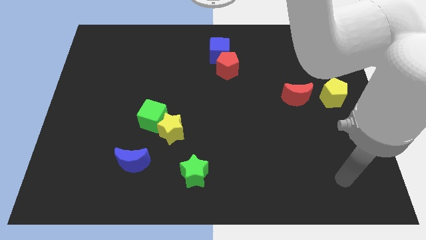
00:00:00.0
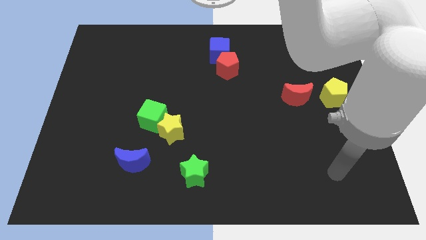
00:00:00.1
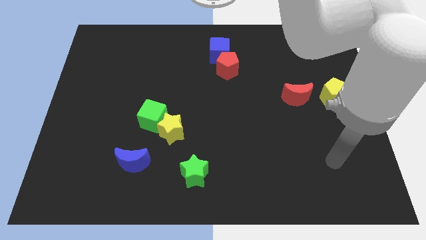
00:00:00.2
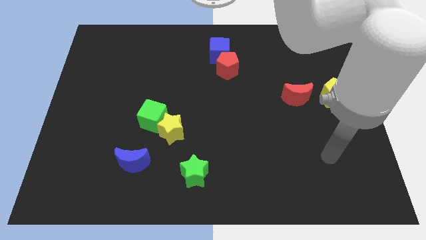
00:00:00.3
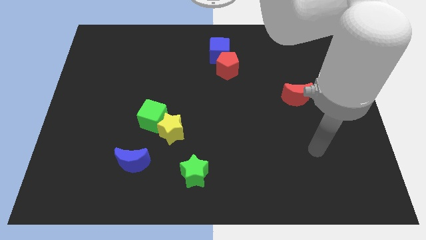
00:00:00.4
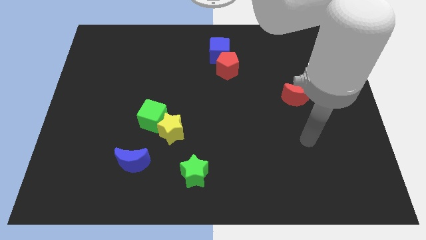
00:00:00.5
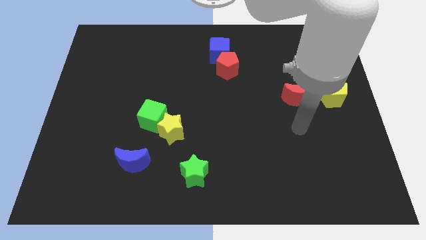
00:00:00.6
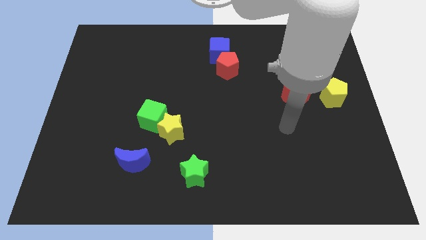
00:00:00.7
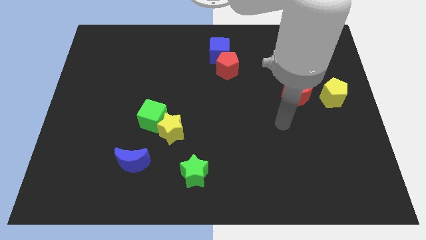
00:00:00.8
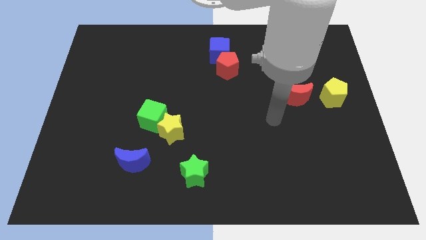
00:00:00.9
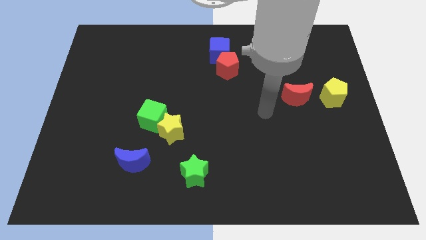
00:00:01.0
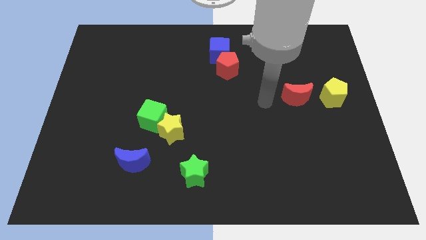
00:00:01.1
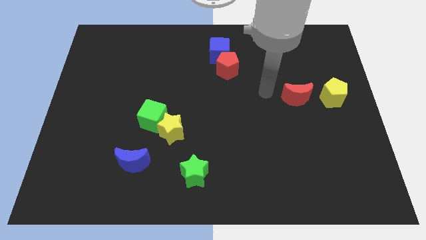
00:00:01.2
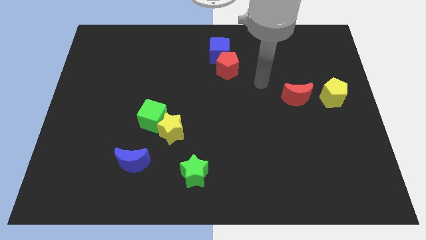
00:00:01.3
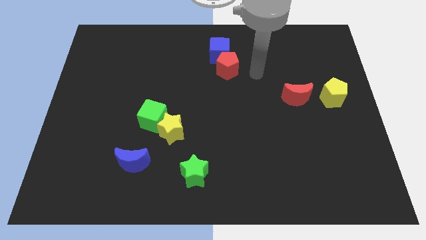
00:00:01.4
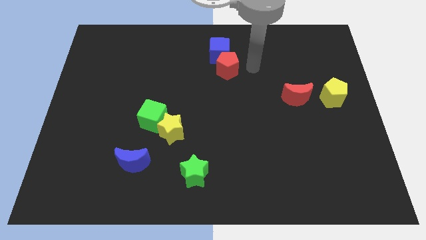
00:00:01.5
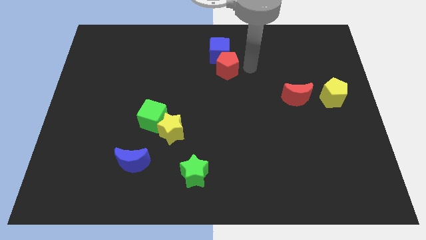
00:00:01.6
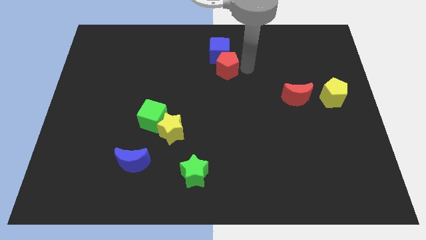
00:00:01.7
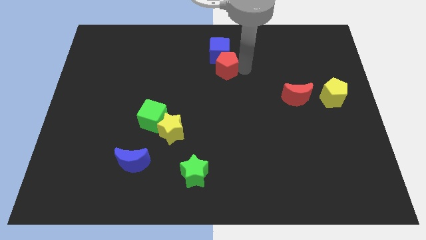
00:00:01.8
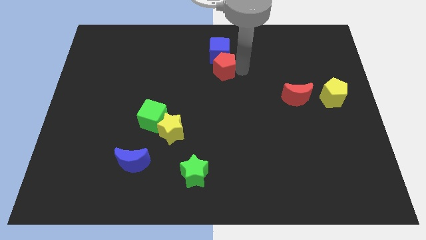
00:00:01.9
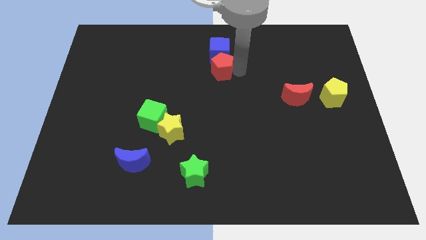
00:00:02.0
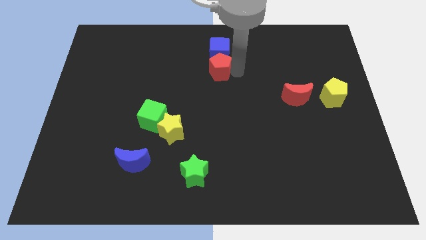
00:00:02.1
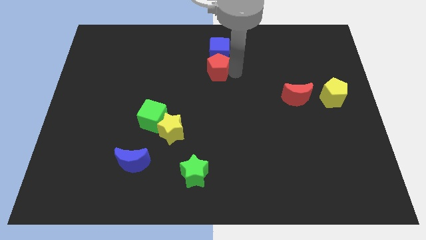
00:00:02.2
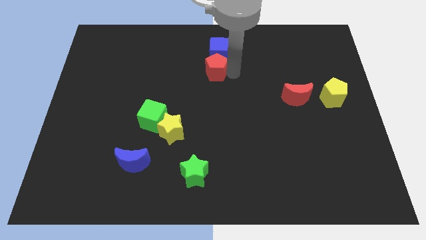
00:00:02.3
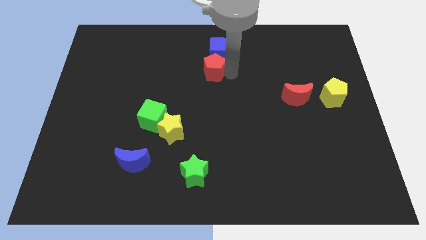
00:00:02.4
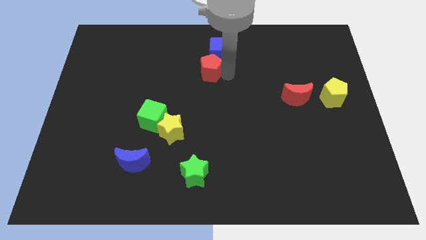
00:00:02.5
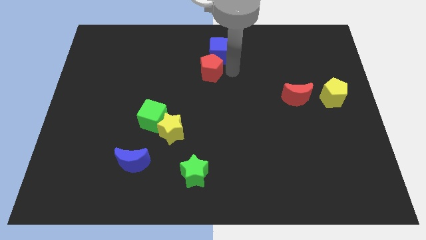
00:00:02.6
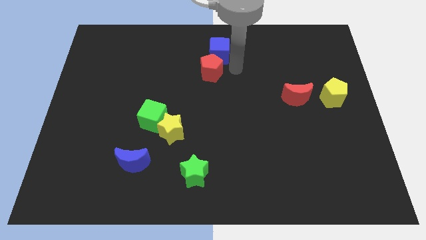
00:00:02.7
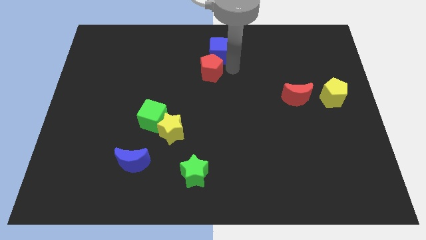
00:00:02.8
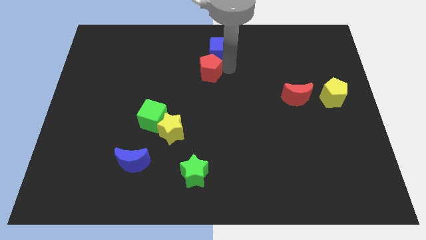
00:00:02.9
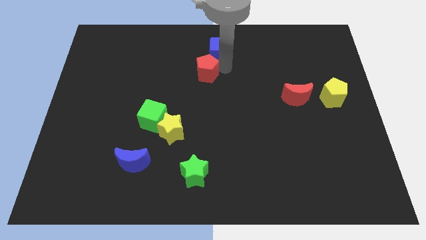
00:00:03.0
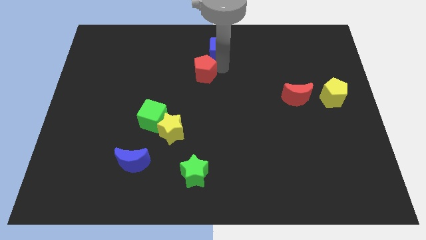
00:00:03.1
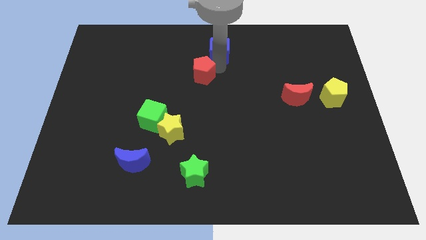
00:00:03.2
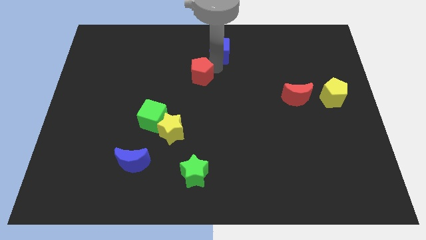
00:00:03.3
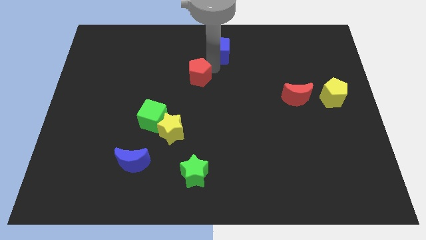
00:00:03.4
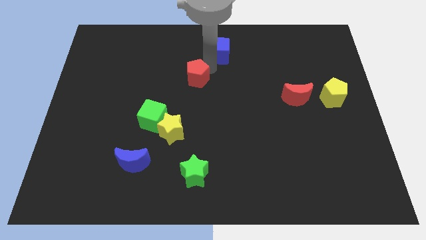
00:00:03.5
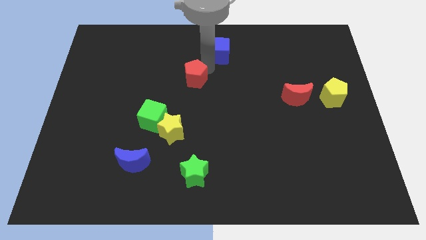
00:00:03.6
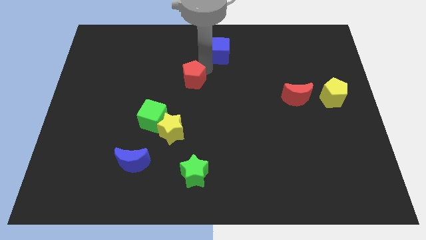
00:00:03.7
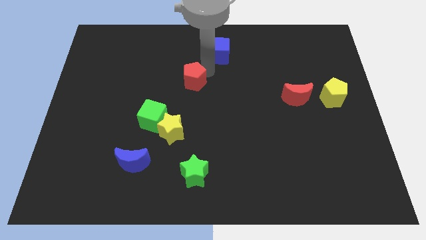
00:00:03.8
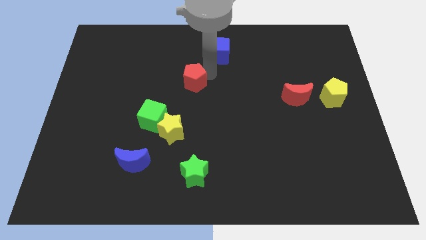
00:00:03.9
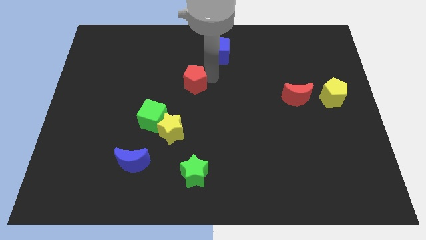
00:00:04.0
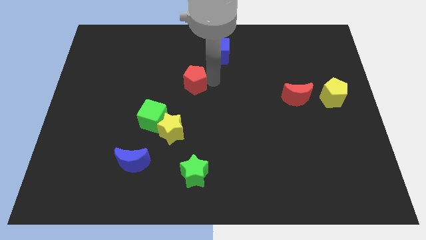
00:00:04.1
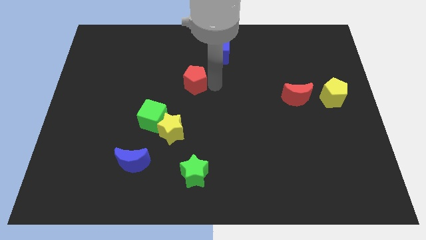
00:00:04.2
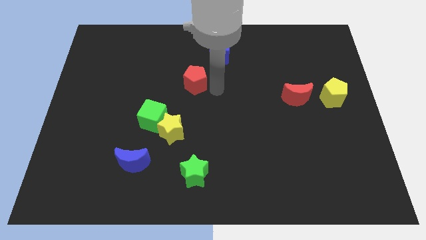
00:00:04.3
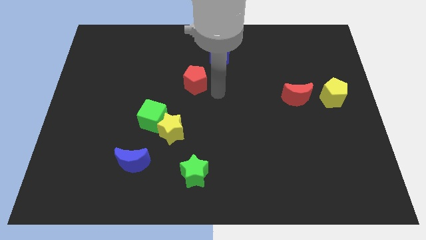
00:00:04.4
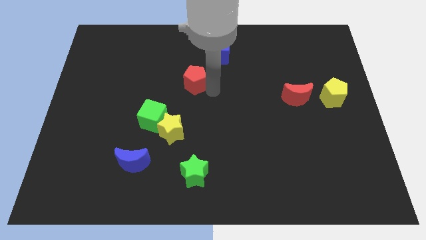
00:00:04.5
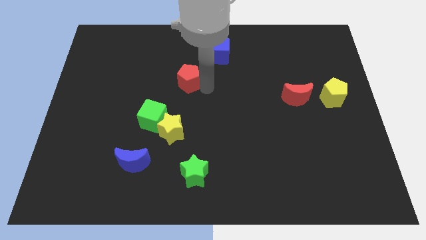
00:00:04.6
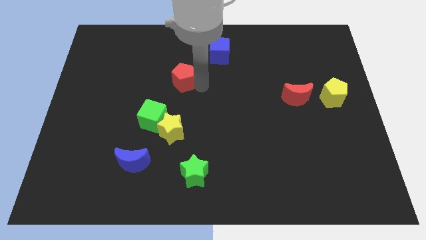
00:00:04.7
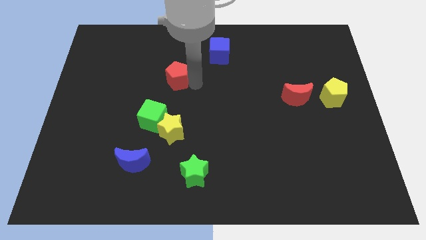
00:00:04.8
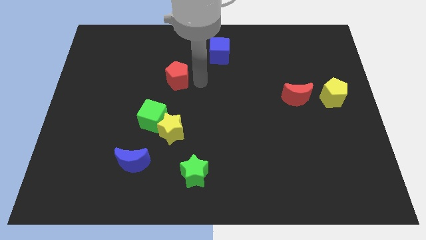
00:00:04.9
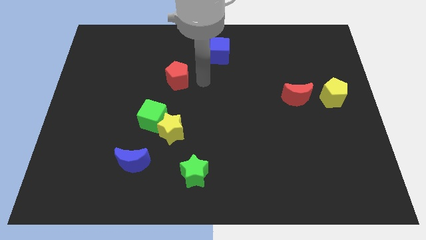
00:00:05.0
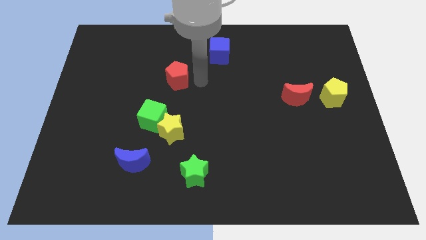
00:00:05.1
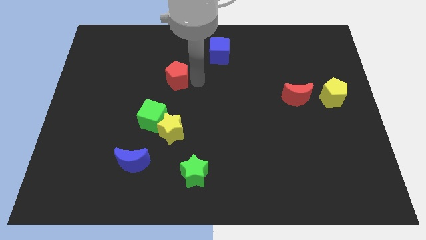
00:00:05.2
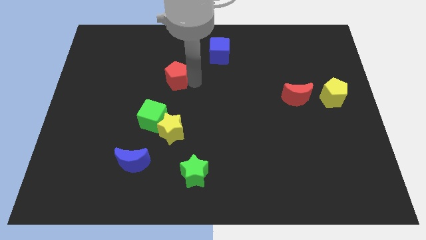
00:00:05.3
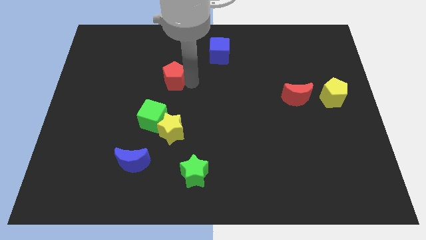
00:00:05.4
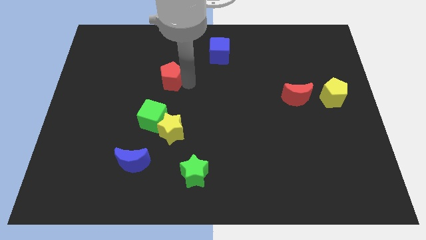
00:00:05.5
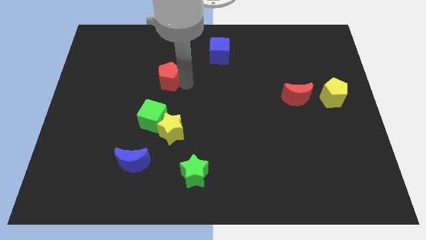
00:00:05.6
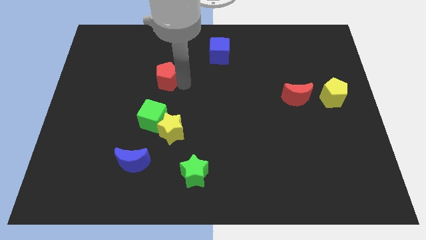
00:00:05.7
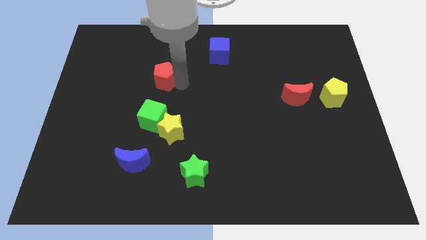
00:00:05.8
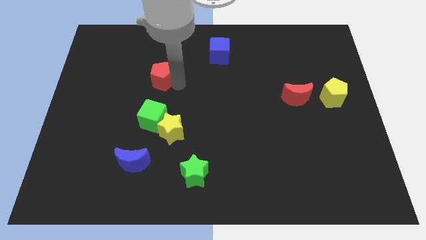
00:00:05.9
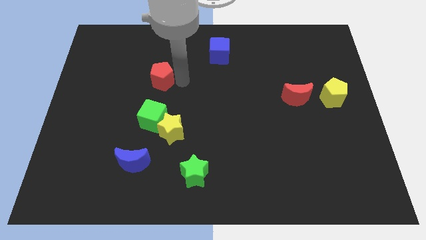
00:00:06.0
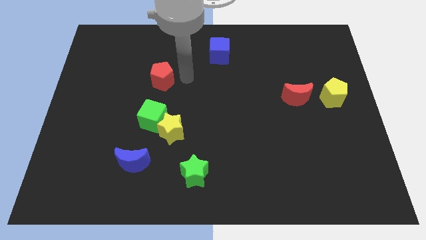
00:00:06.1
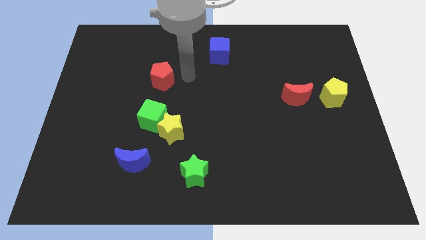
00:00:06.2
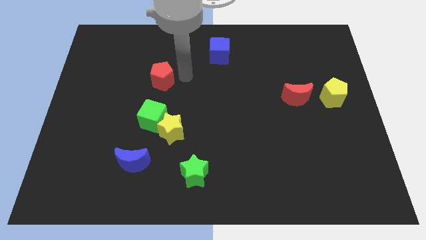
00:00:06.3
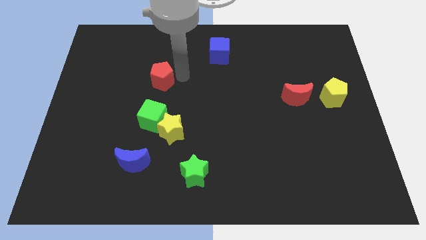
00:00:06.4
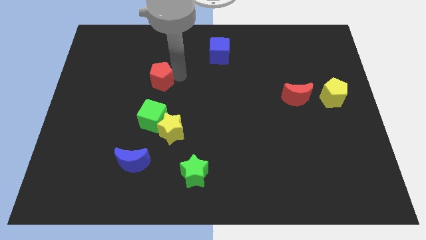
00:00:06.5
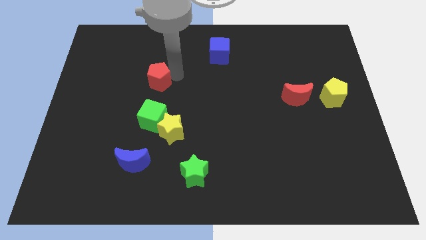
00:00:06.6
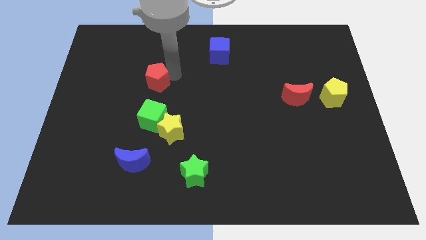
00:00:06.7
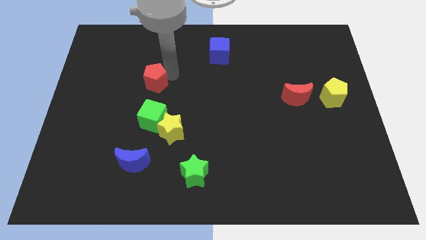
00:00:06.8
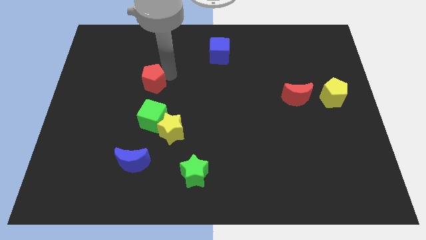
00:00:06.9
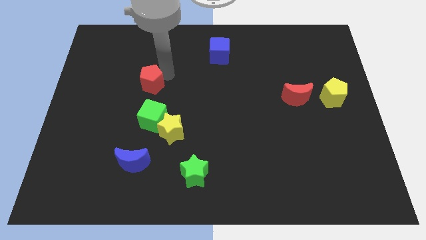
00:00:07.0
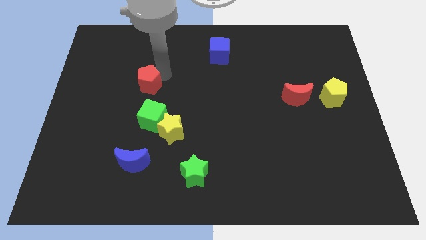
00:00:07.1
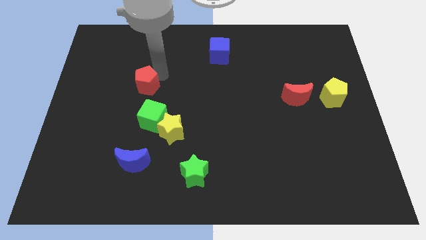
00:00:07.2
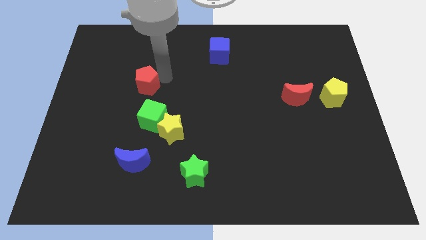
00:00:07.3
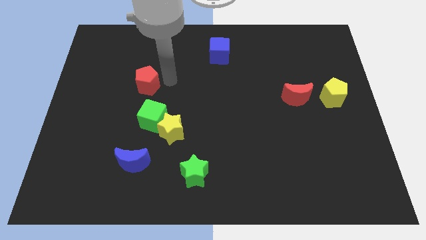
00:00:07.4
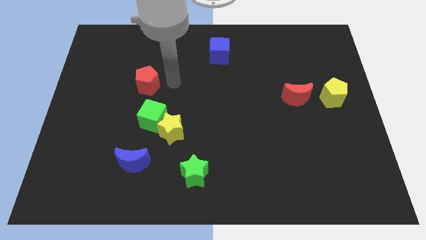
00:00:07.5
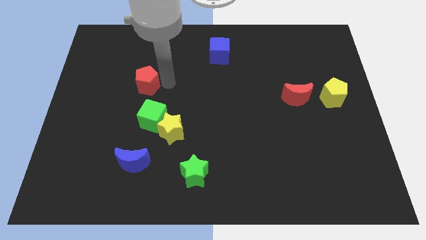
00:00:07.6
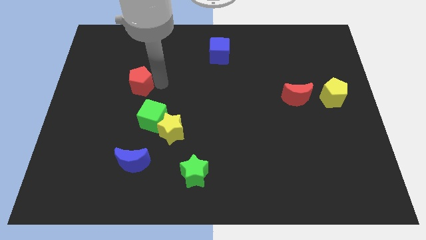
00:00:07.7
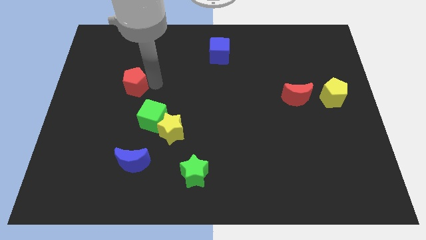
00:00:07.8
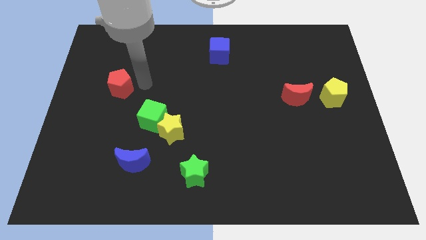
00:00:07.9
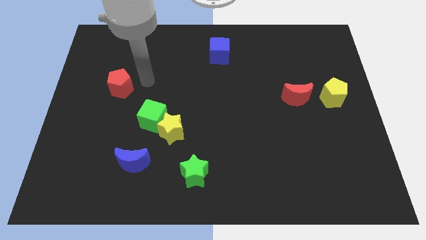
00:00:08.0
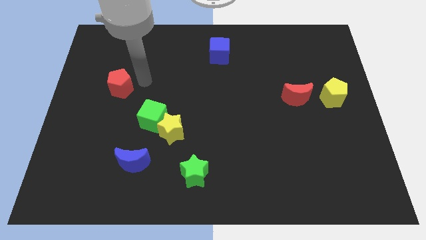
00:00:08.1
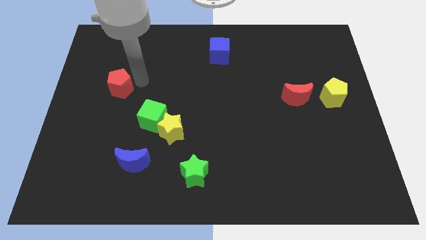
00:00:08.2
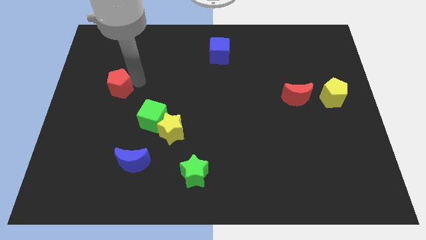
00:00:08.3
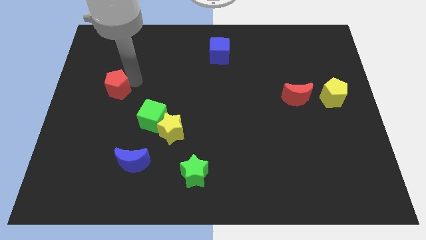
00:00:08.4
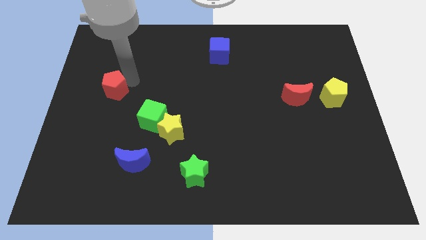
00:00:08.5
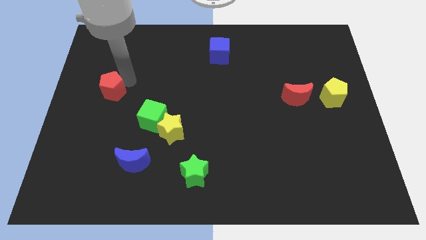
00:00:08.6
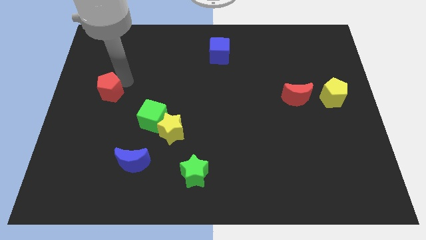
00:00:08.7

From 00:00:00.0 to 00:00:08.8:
put the red pentagon to the left side
